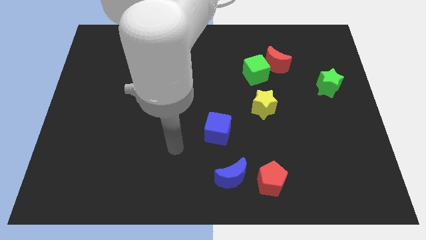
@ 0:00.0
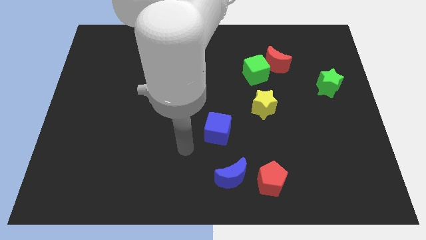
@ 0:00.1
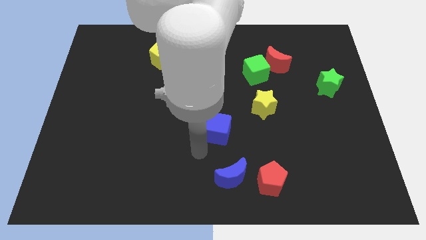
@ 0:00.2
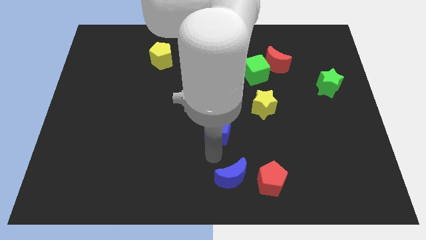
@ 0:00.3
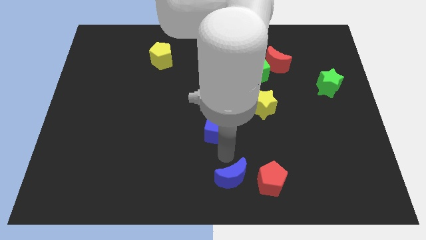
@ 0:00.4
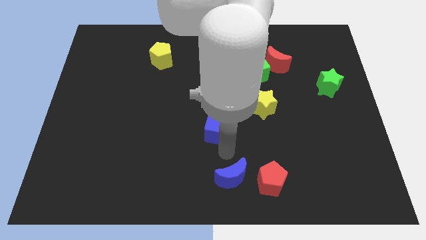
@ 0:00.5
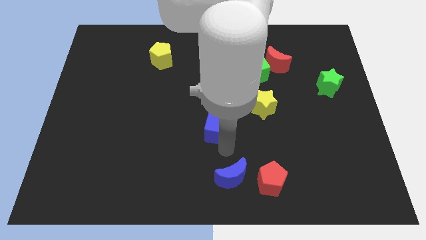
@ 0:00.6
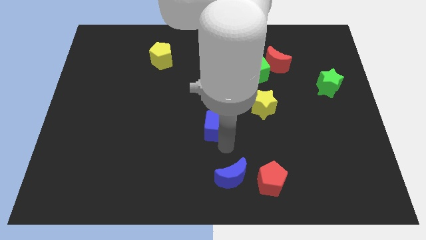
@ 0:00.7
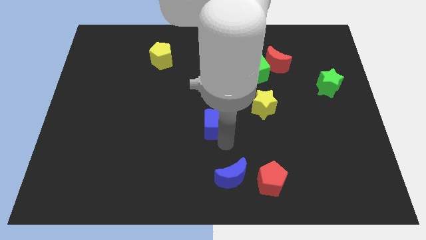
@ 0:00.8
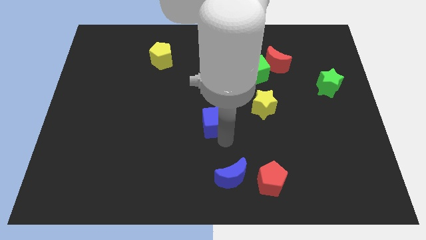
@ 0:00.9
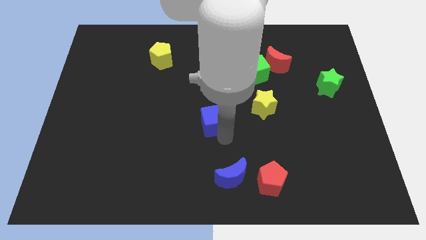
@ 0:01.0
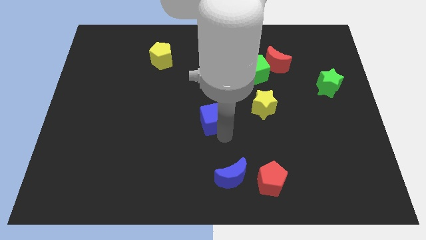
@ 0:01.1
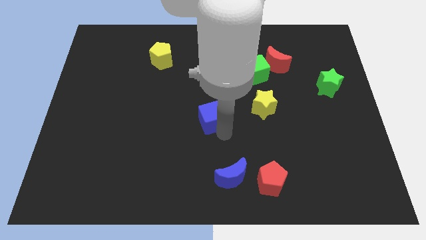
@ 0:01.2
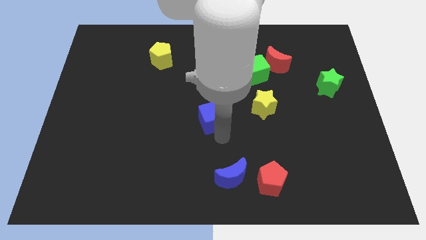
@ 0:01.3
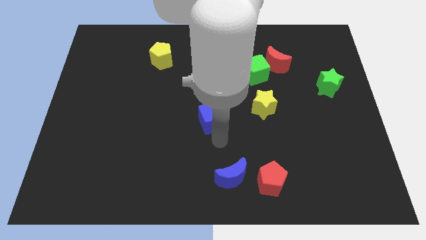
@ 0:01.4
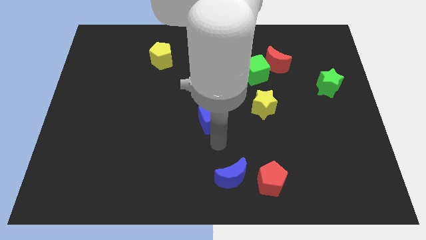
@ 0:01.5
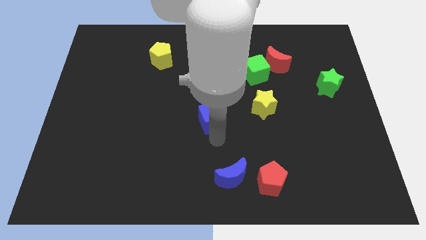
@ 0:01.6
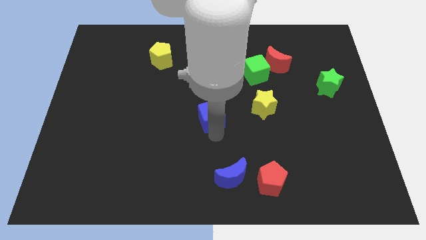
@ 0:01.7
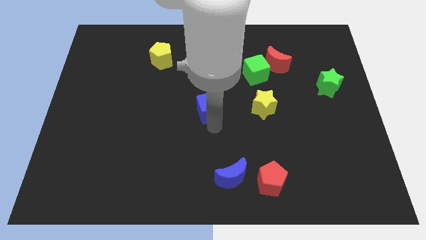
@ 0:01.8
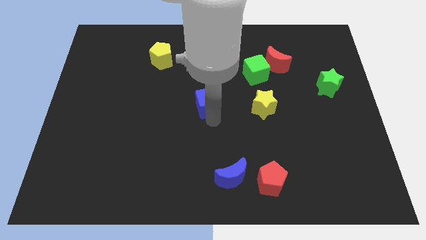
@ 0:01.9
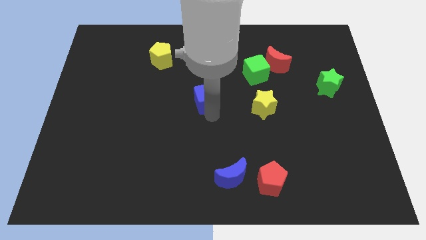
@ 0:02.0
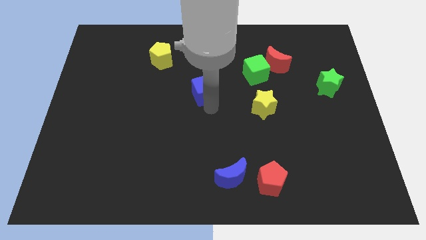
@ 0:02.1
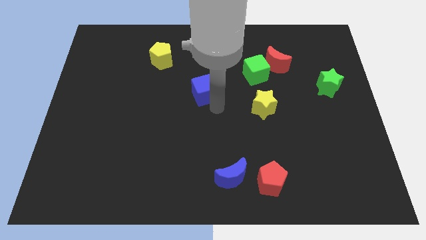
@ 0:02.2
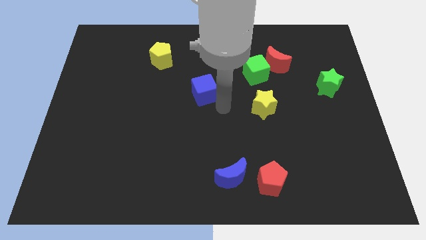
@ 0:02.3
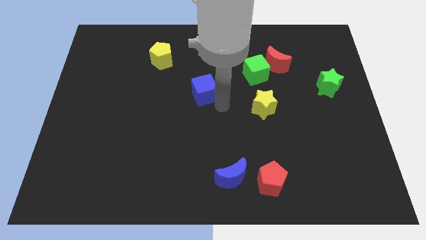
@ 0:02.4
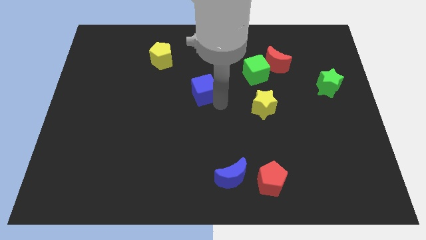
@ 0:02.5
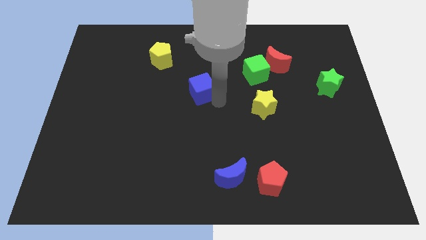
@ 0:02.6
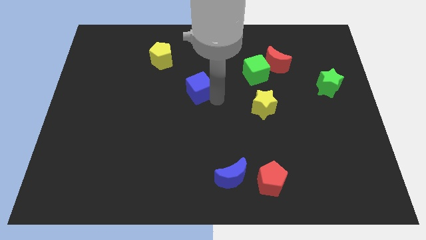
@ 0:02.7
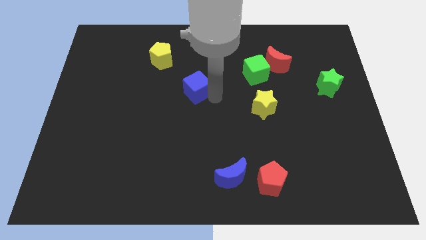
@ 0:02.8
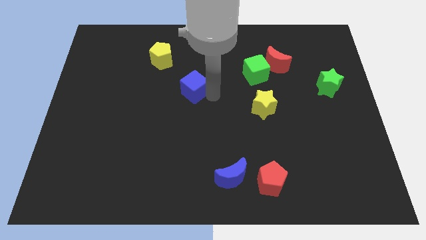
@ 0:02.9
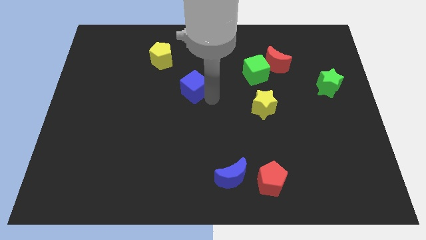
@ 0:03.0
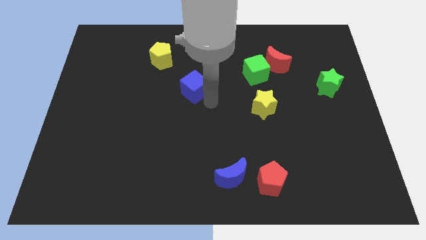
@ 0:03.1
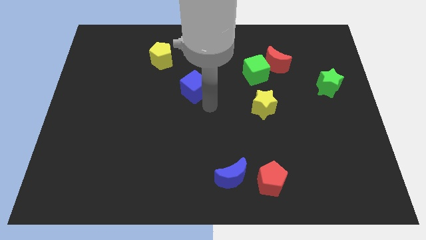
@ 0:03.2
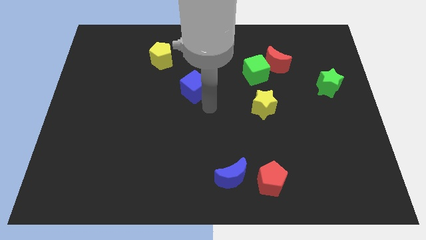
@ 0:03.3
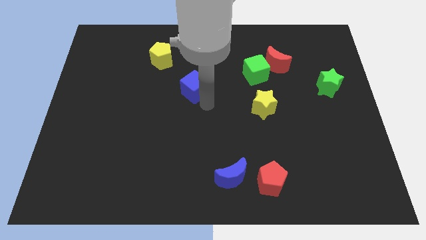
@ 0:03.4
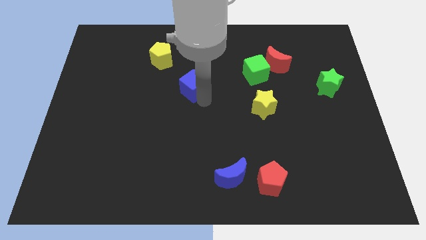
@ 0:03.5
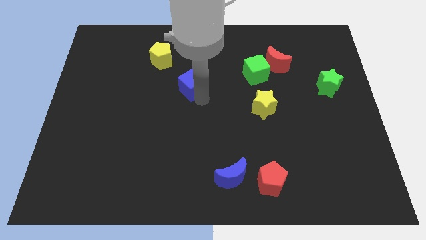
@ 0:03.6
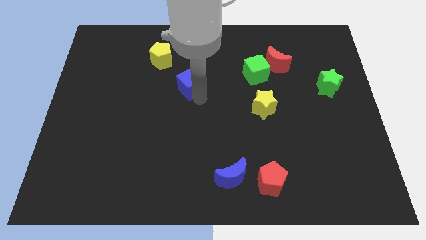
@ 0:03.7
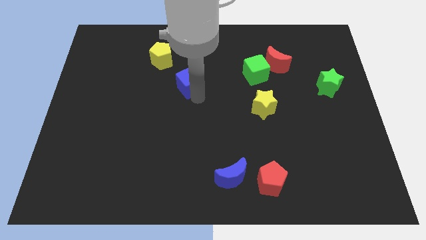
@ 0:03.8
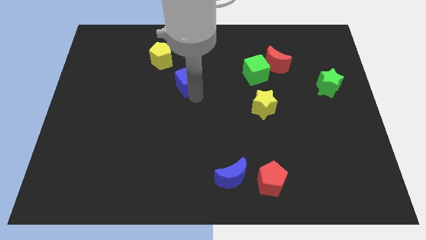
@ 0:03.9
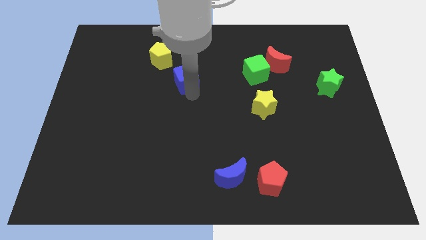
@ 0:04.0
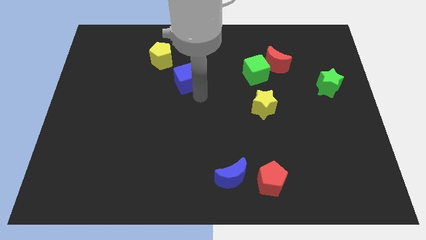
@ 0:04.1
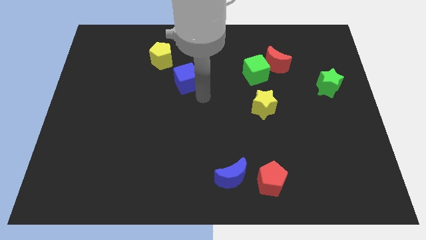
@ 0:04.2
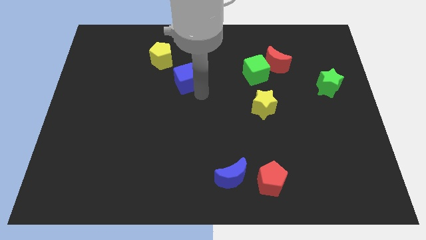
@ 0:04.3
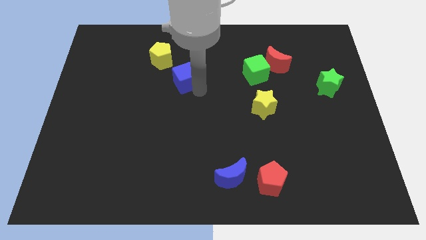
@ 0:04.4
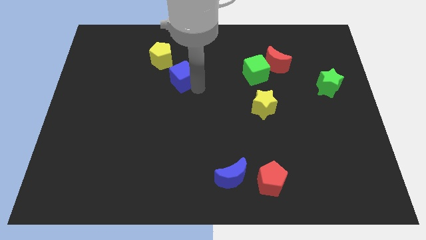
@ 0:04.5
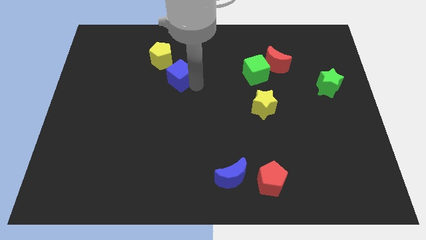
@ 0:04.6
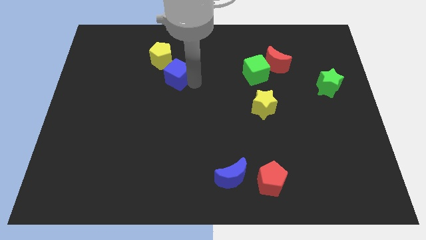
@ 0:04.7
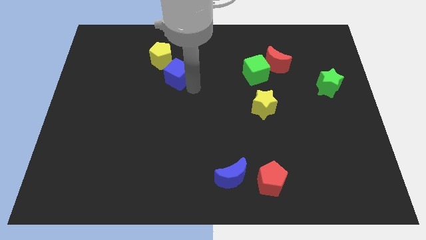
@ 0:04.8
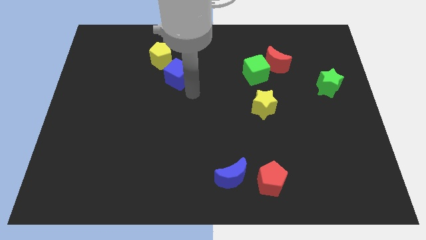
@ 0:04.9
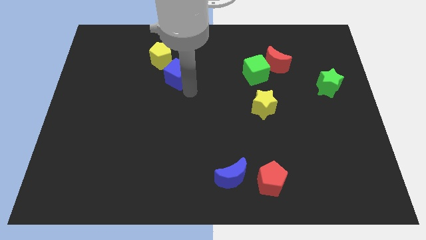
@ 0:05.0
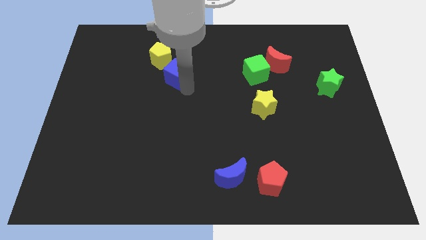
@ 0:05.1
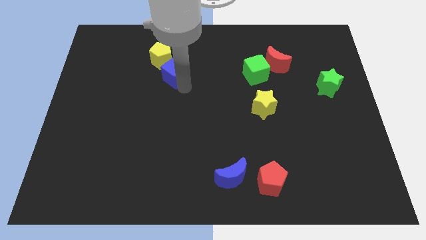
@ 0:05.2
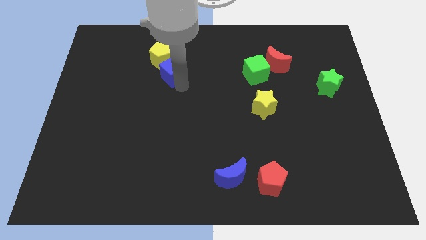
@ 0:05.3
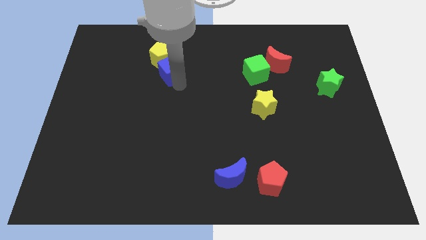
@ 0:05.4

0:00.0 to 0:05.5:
slide the blue cube next to the yellow pentagon

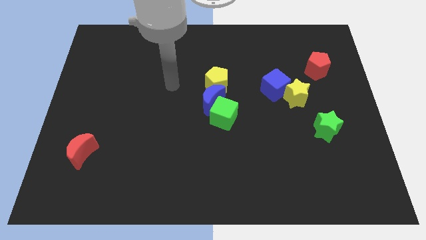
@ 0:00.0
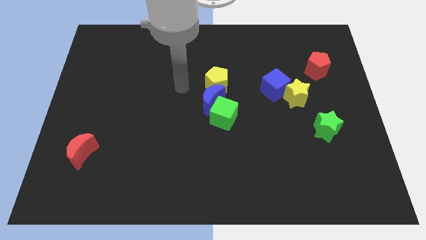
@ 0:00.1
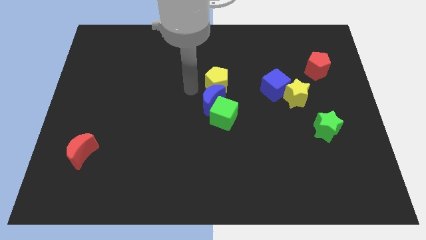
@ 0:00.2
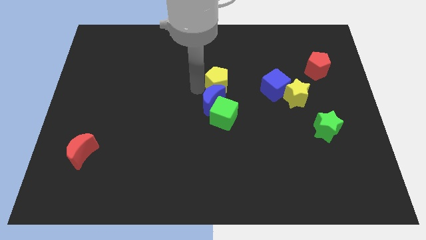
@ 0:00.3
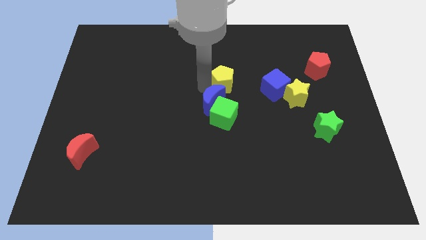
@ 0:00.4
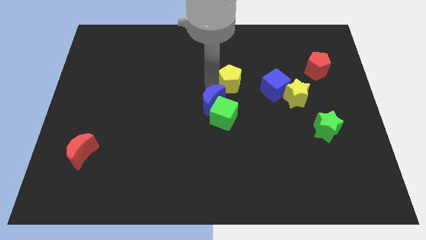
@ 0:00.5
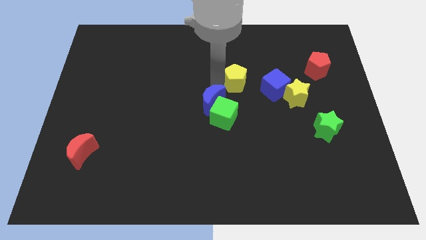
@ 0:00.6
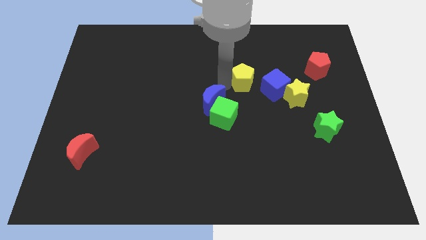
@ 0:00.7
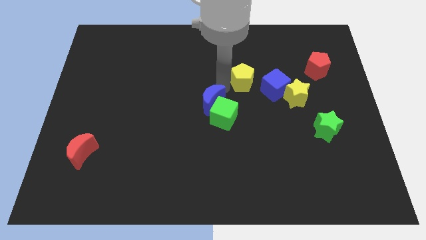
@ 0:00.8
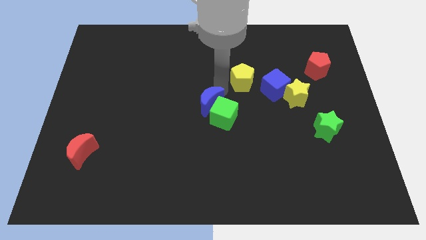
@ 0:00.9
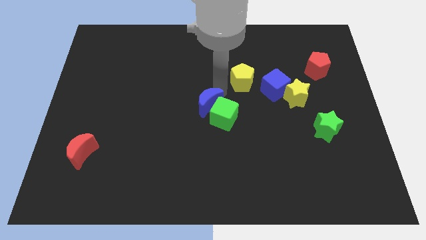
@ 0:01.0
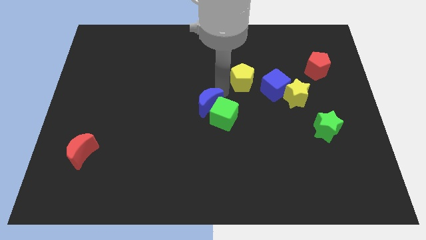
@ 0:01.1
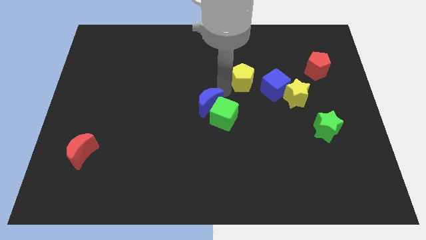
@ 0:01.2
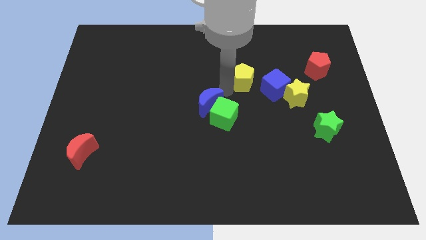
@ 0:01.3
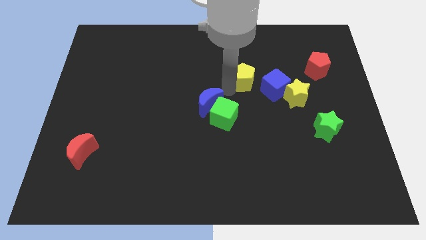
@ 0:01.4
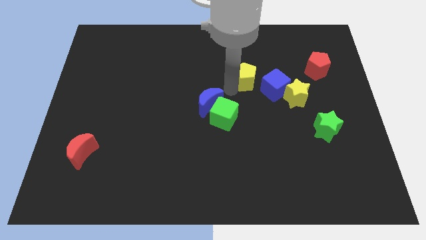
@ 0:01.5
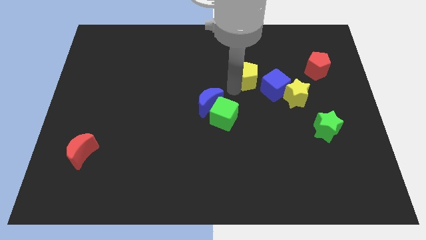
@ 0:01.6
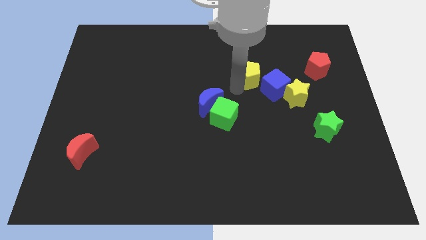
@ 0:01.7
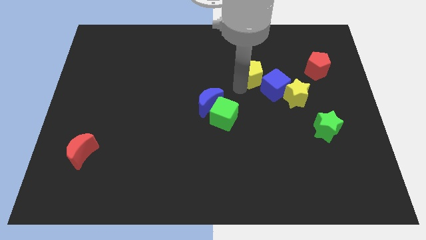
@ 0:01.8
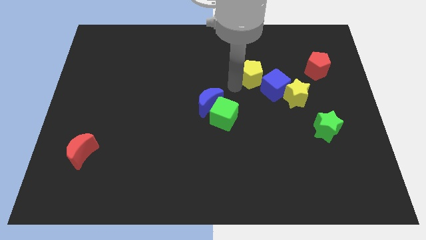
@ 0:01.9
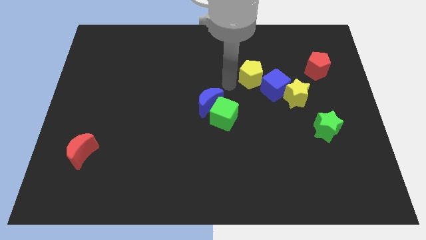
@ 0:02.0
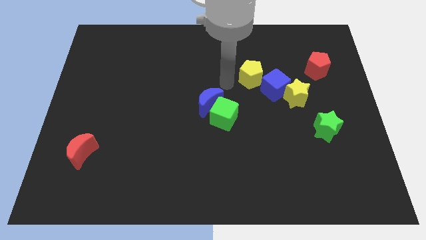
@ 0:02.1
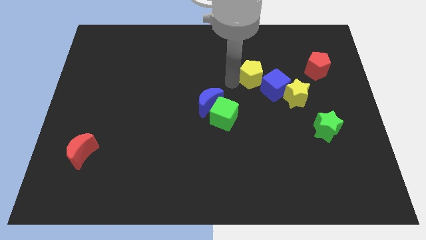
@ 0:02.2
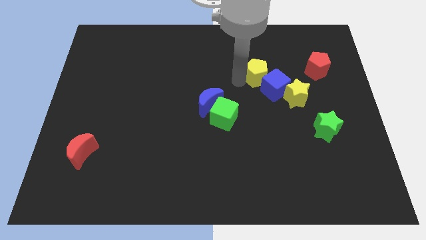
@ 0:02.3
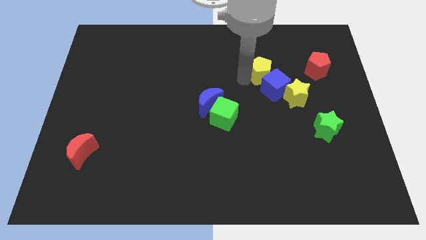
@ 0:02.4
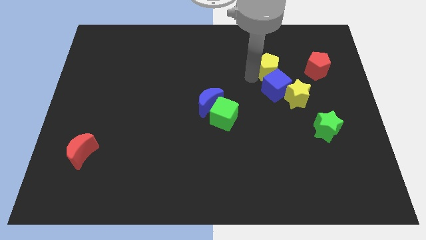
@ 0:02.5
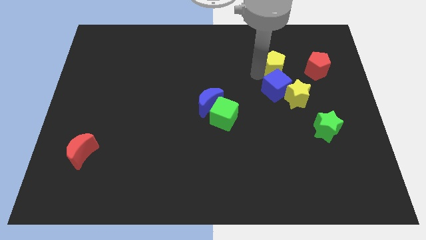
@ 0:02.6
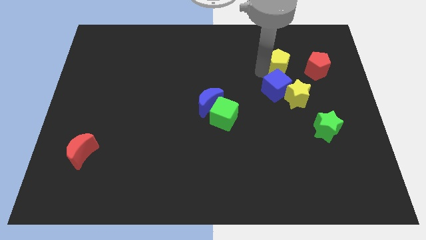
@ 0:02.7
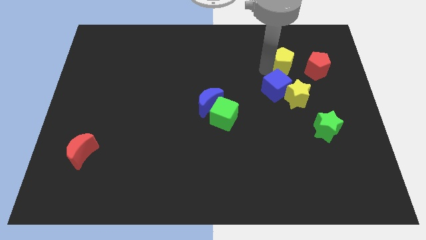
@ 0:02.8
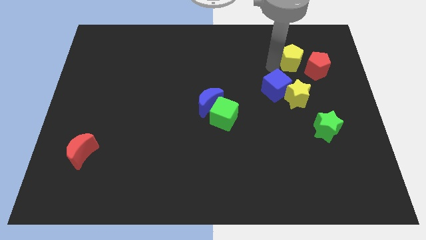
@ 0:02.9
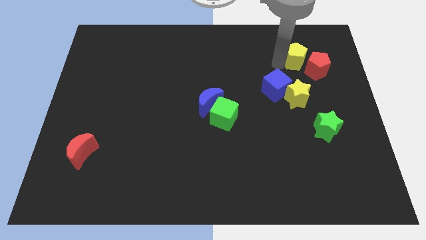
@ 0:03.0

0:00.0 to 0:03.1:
slide the yellow pentagon towards the red pentagon
